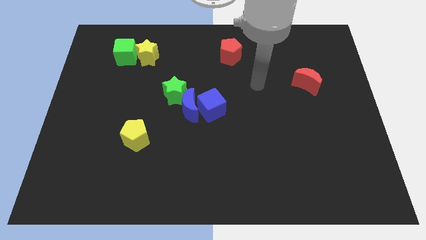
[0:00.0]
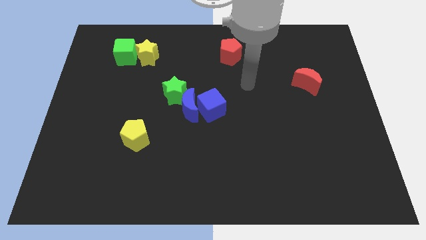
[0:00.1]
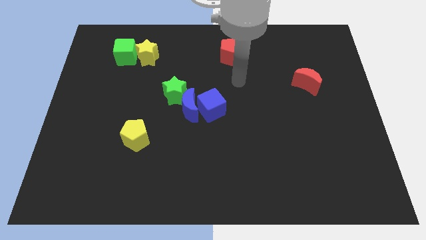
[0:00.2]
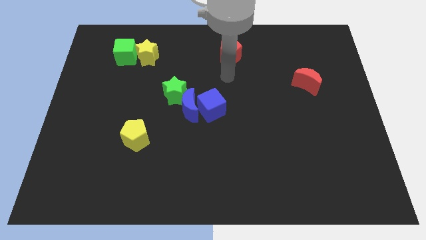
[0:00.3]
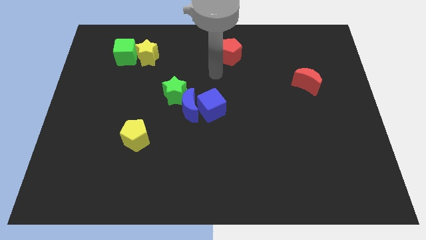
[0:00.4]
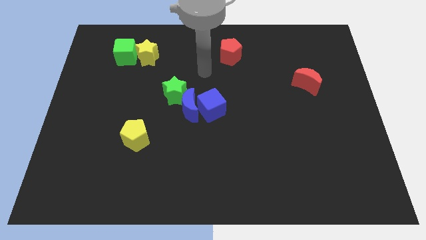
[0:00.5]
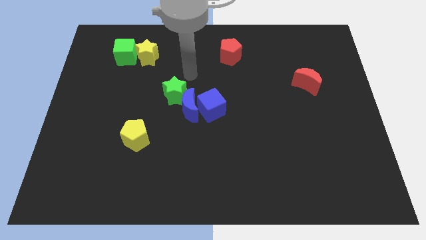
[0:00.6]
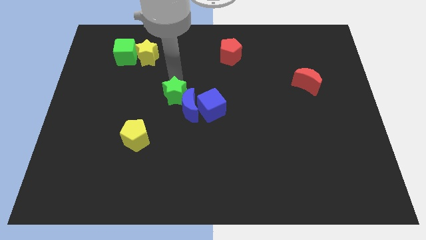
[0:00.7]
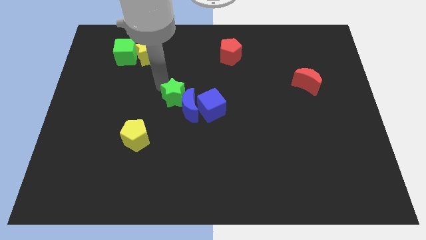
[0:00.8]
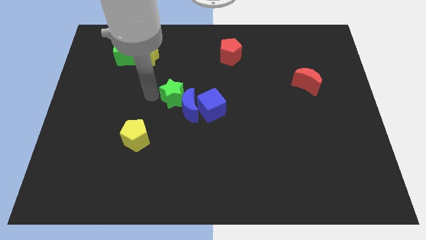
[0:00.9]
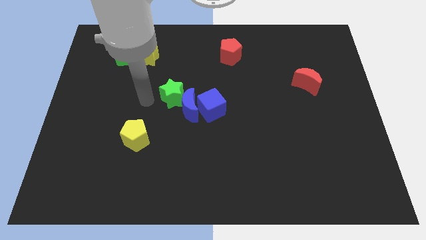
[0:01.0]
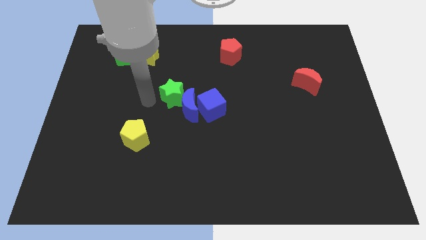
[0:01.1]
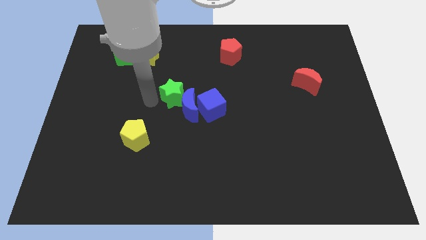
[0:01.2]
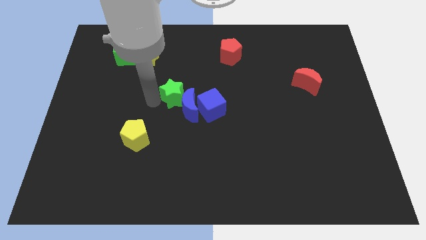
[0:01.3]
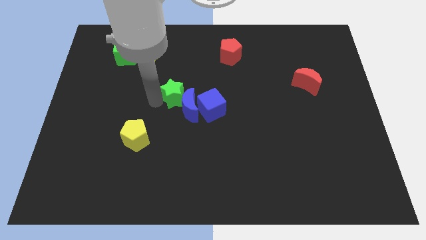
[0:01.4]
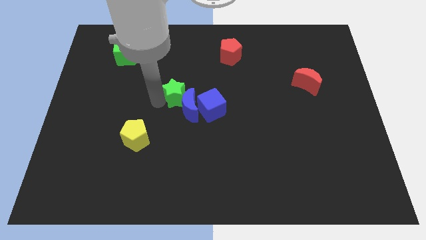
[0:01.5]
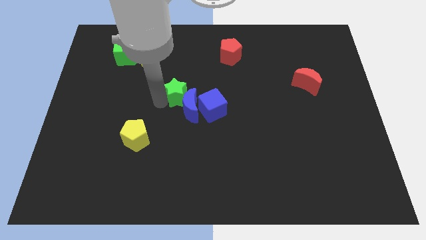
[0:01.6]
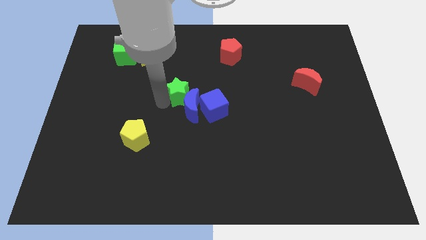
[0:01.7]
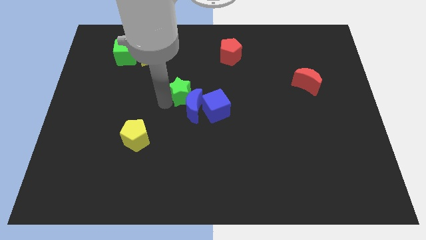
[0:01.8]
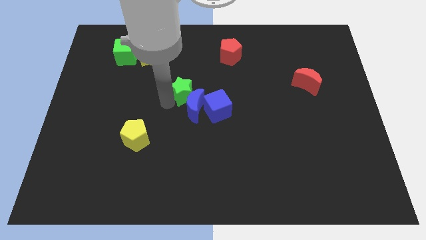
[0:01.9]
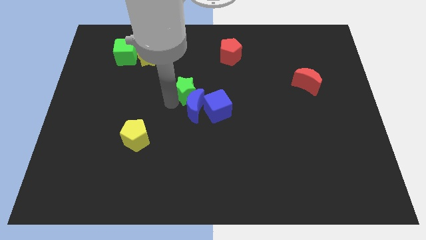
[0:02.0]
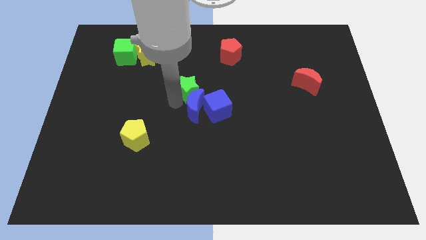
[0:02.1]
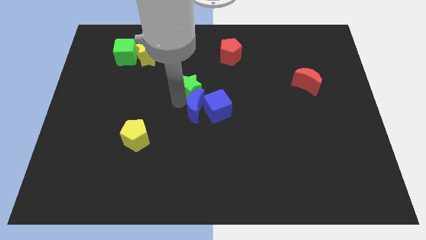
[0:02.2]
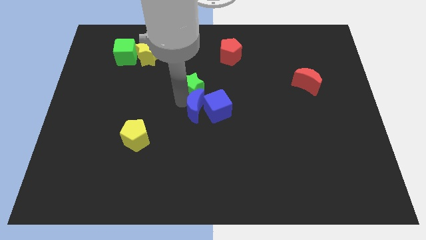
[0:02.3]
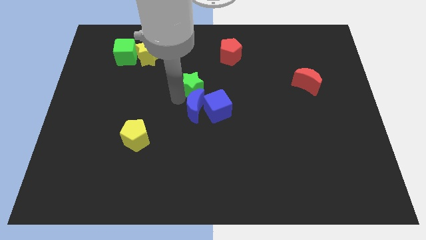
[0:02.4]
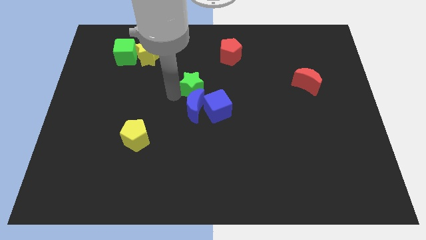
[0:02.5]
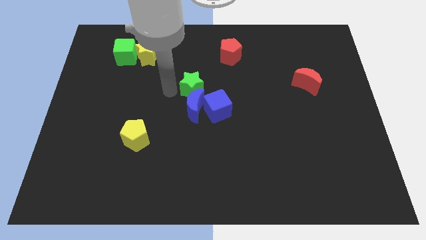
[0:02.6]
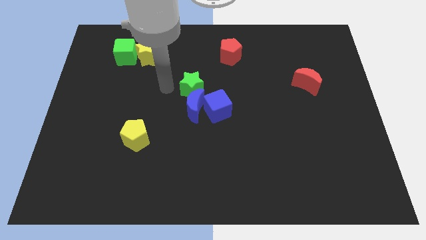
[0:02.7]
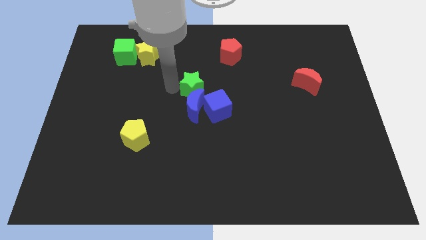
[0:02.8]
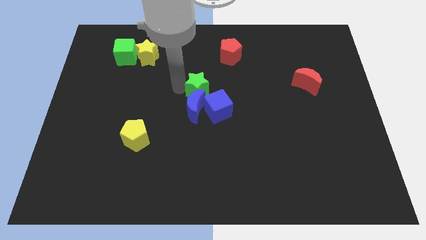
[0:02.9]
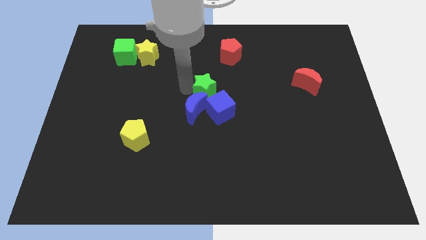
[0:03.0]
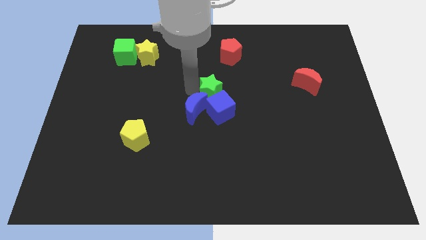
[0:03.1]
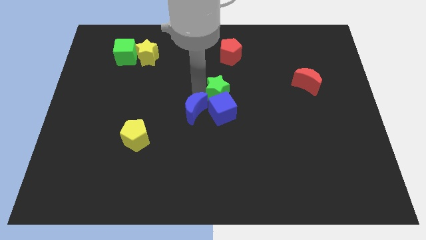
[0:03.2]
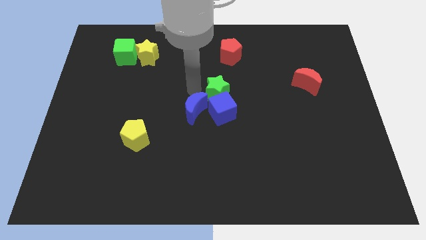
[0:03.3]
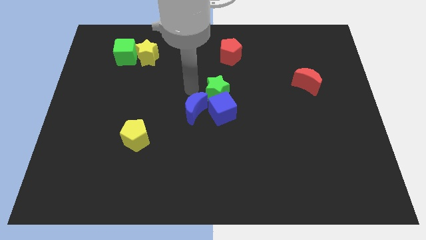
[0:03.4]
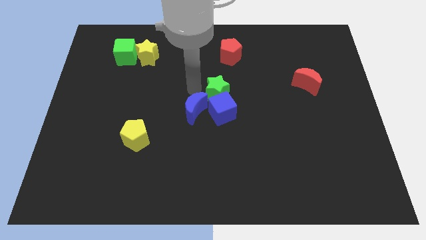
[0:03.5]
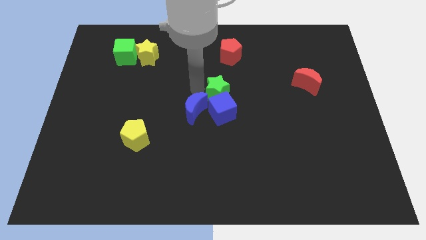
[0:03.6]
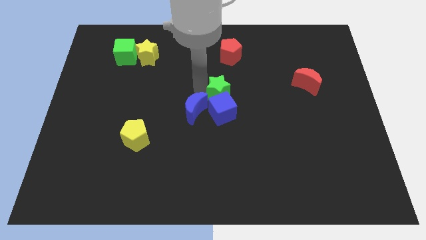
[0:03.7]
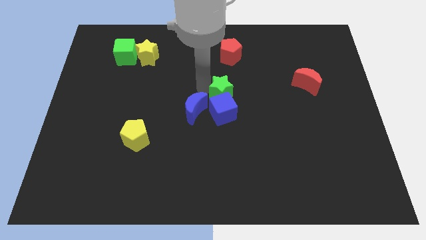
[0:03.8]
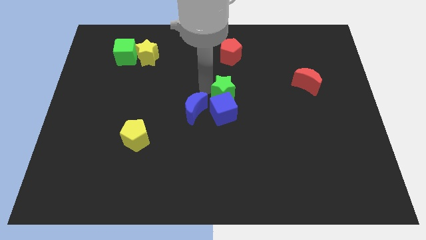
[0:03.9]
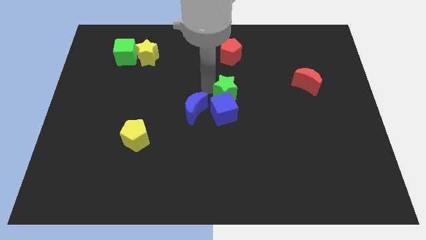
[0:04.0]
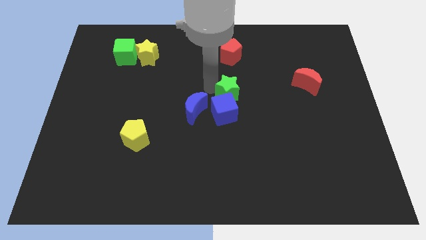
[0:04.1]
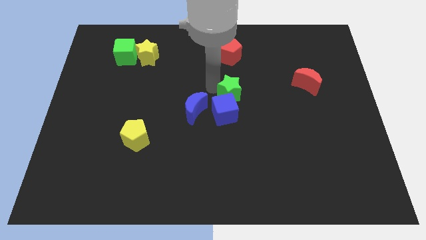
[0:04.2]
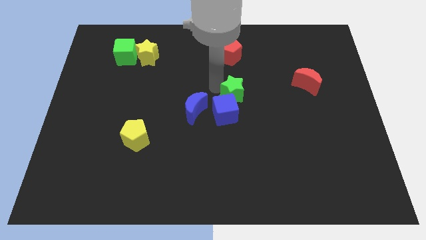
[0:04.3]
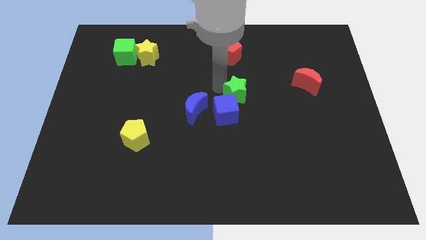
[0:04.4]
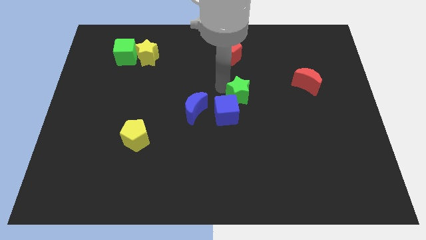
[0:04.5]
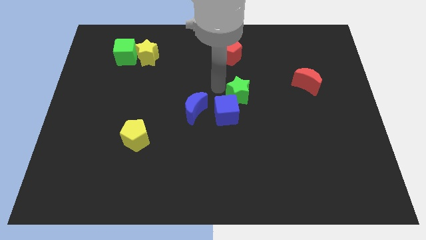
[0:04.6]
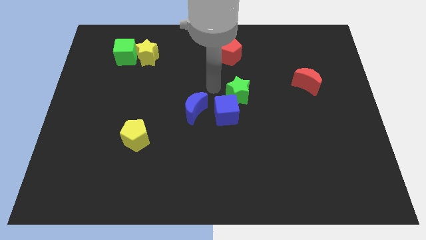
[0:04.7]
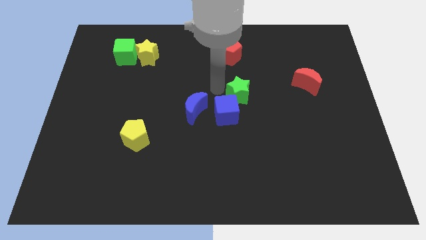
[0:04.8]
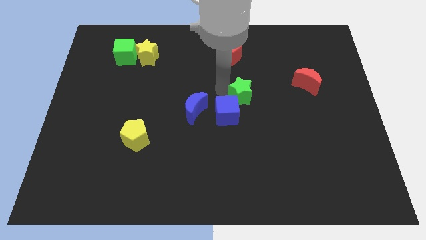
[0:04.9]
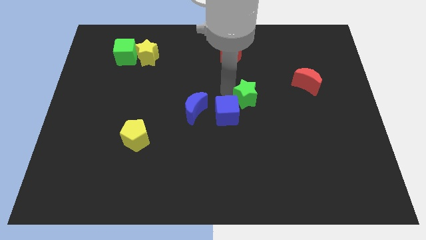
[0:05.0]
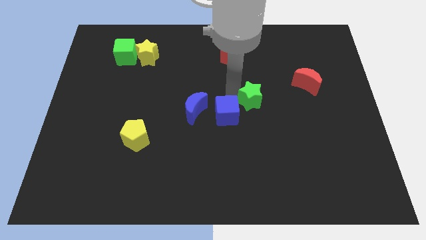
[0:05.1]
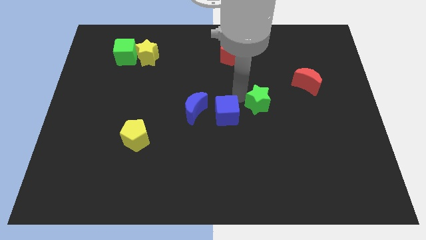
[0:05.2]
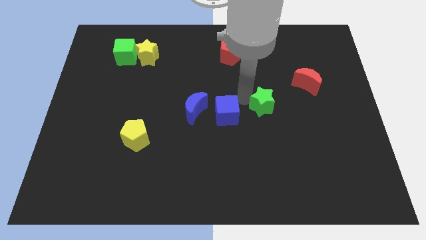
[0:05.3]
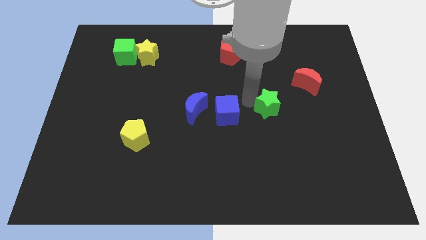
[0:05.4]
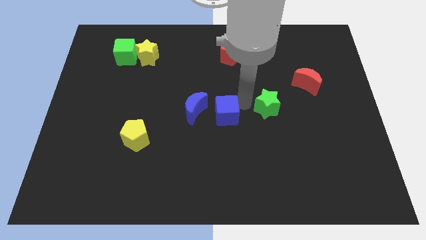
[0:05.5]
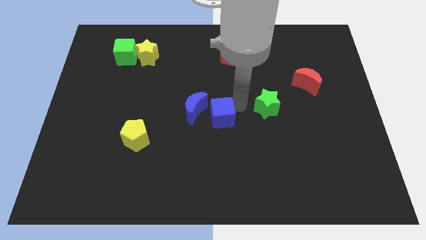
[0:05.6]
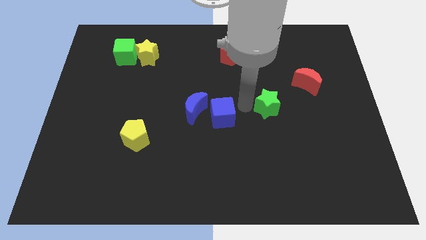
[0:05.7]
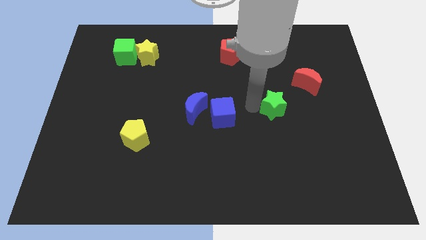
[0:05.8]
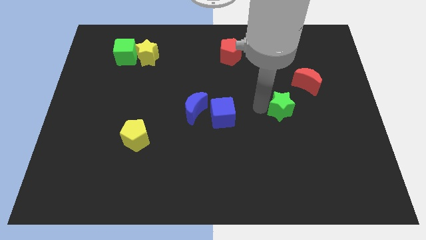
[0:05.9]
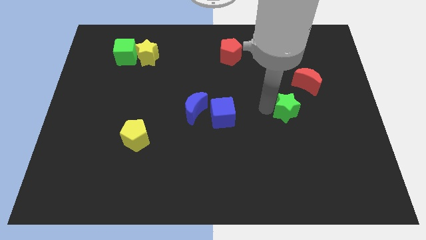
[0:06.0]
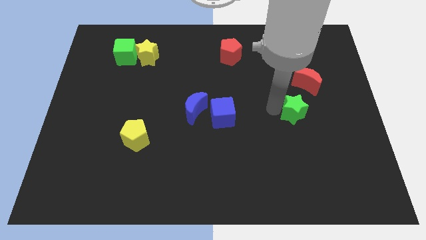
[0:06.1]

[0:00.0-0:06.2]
push the green star to the bottom side of the red moon
